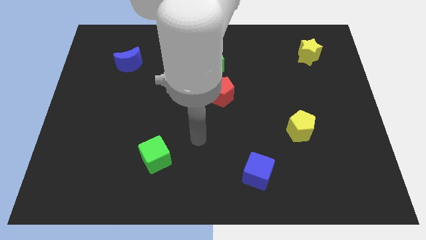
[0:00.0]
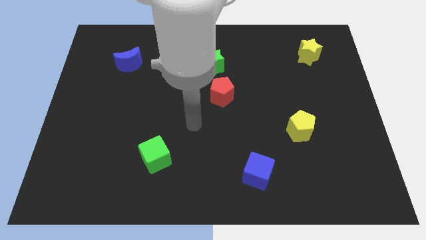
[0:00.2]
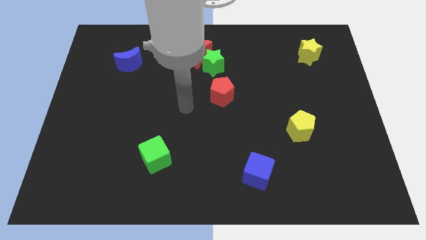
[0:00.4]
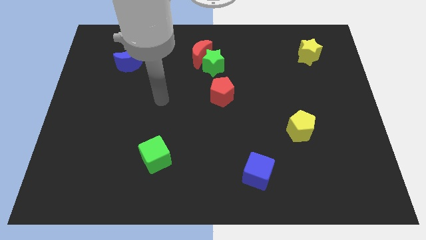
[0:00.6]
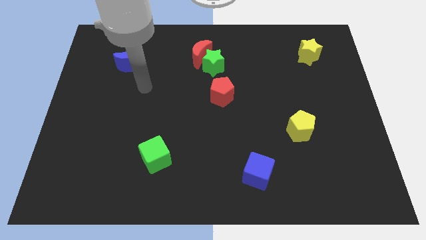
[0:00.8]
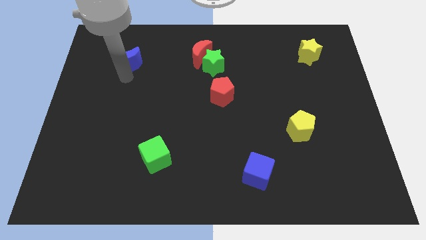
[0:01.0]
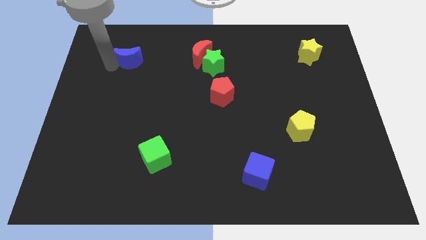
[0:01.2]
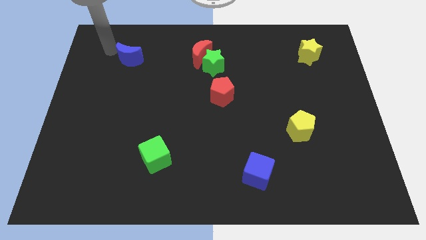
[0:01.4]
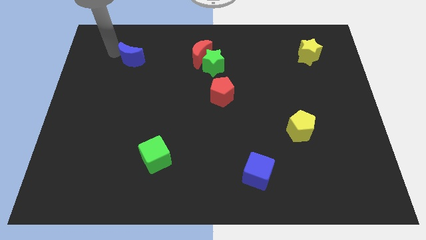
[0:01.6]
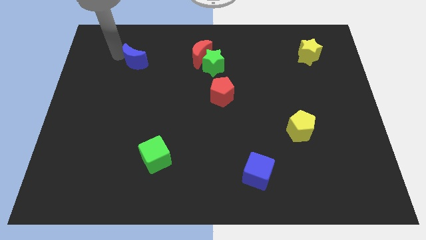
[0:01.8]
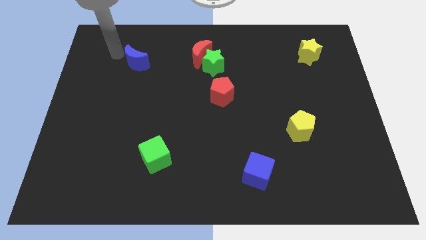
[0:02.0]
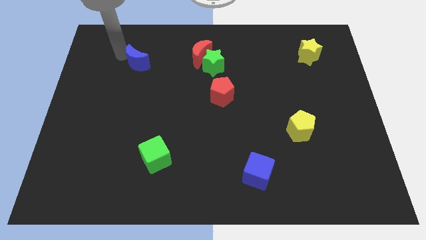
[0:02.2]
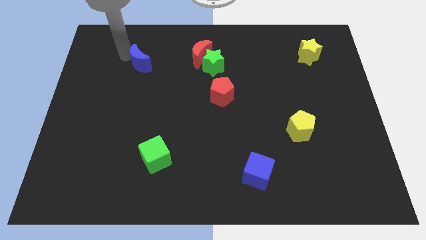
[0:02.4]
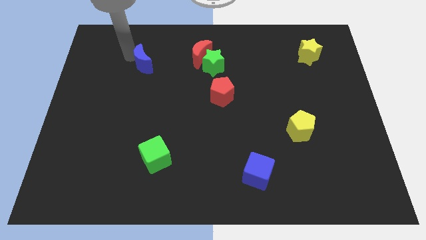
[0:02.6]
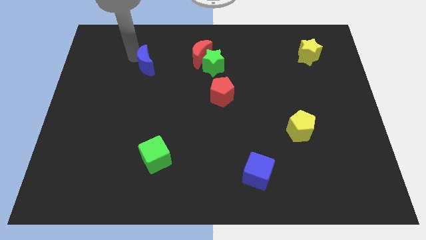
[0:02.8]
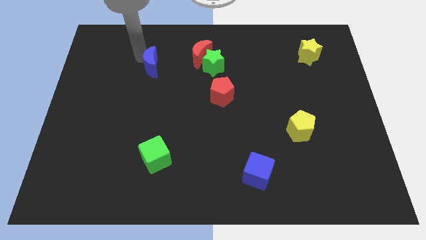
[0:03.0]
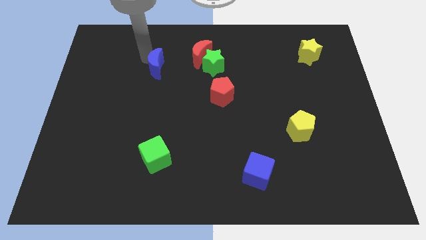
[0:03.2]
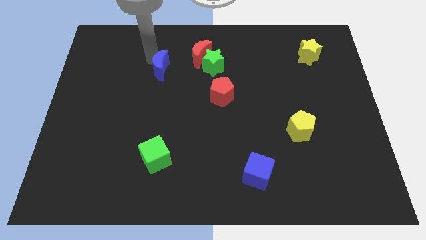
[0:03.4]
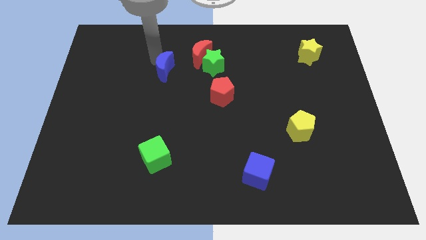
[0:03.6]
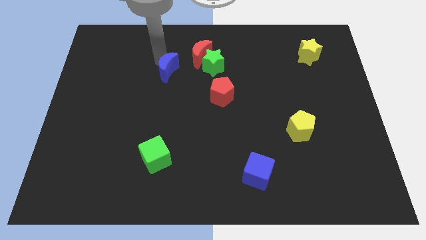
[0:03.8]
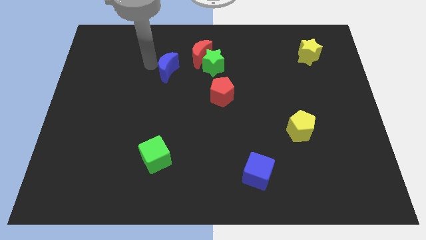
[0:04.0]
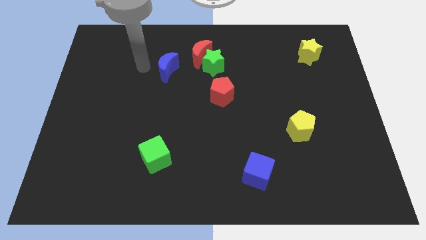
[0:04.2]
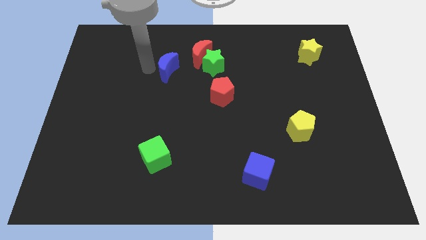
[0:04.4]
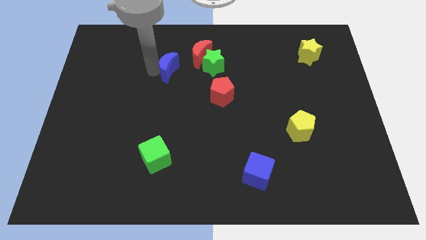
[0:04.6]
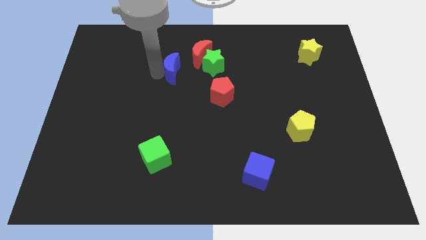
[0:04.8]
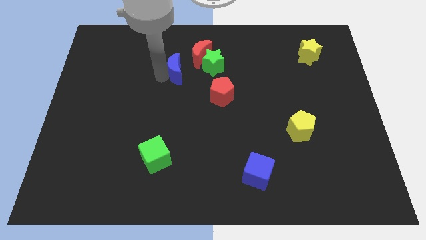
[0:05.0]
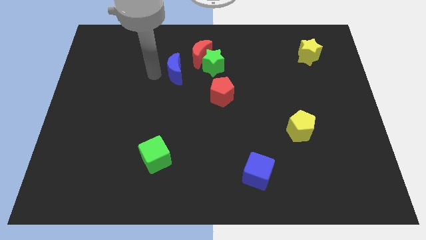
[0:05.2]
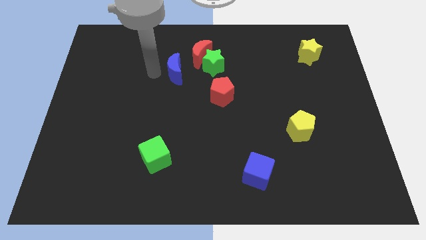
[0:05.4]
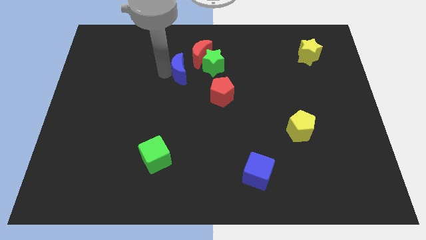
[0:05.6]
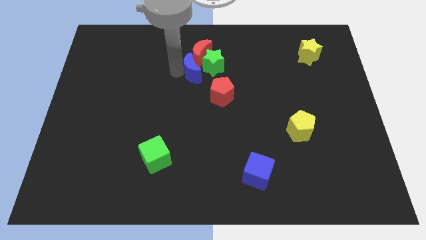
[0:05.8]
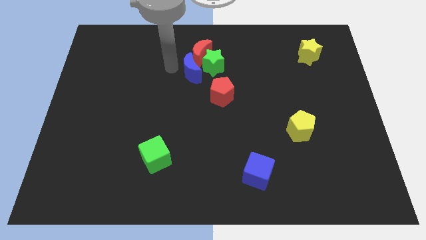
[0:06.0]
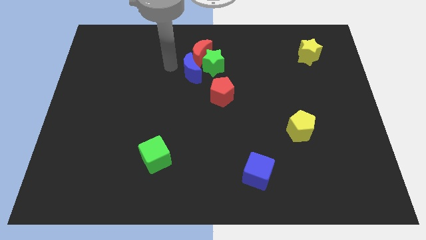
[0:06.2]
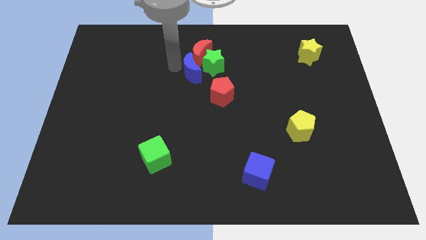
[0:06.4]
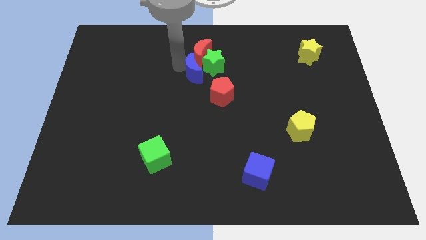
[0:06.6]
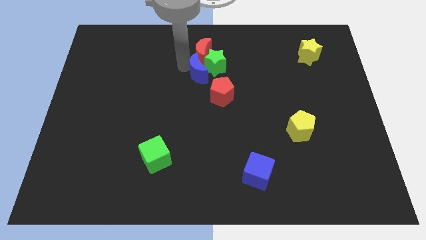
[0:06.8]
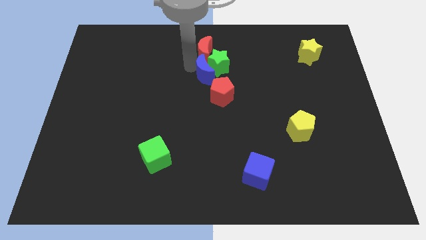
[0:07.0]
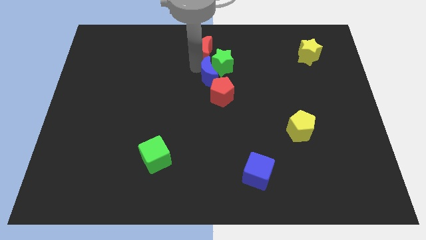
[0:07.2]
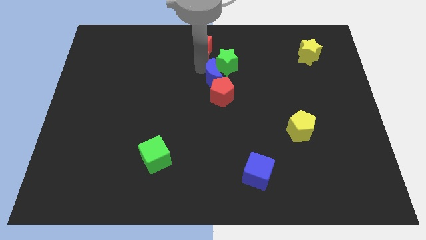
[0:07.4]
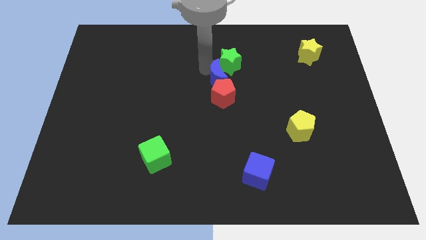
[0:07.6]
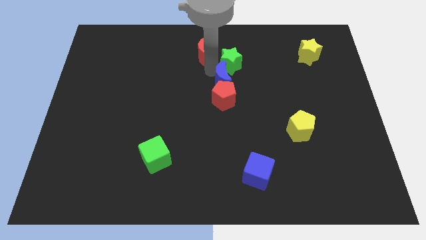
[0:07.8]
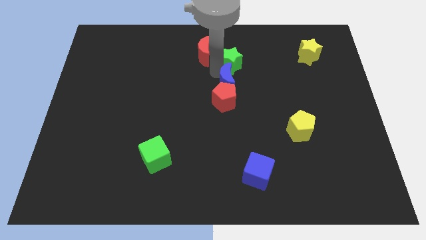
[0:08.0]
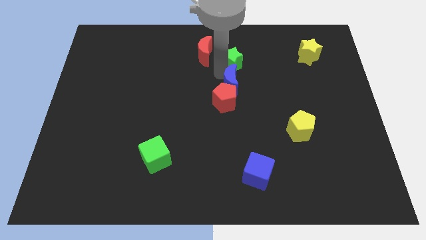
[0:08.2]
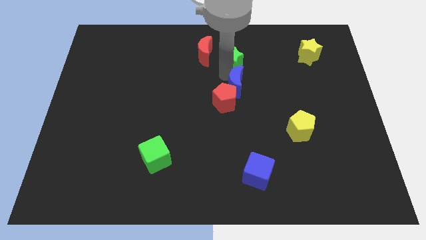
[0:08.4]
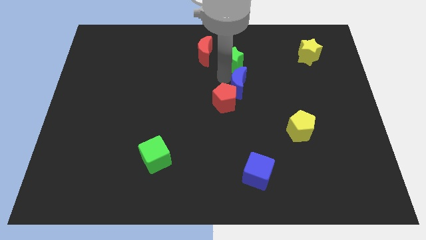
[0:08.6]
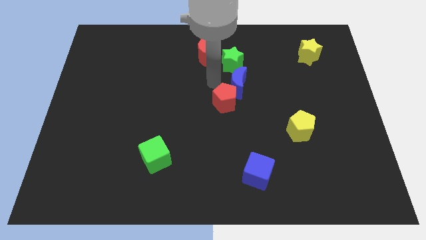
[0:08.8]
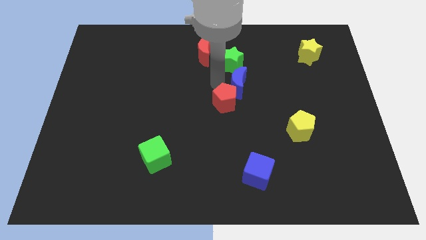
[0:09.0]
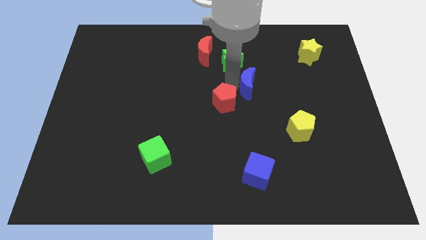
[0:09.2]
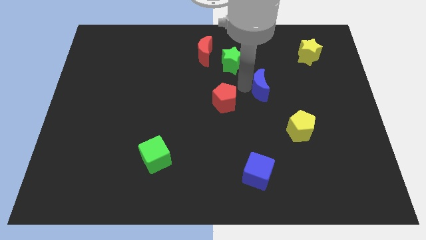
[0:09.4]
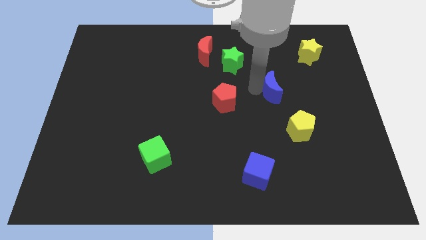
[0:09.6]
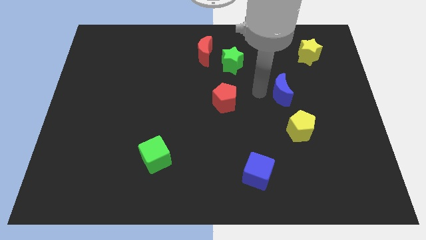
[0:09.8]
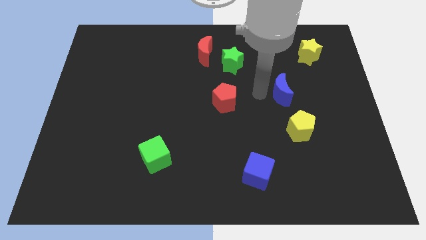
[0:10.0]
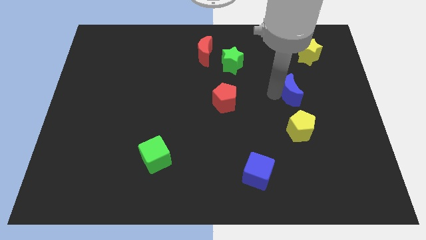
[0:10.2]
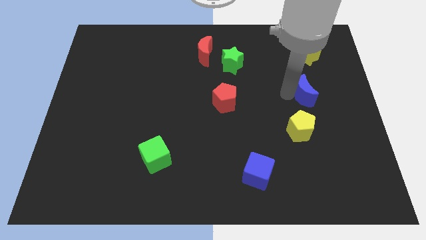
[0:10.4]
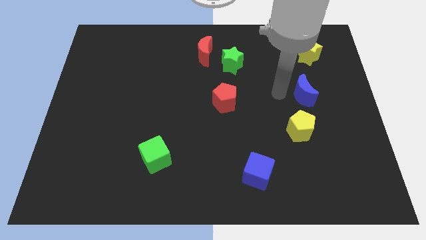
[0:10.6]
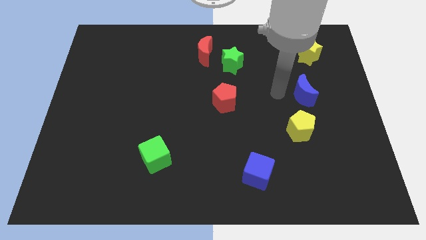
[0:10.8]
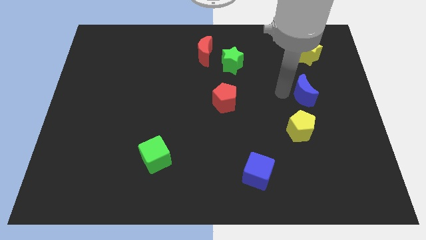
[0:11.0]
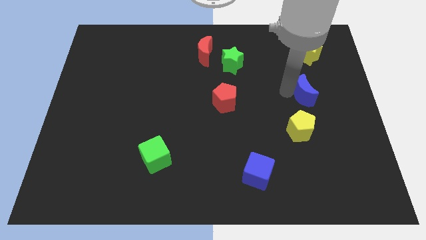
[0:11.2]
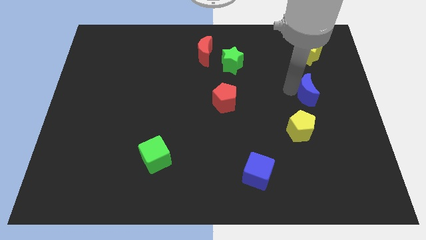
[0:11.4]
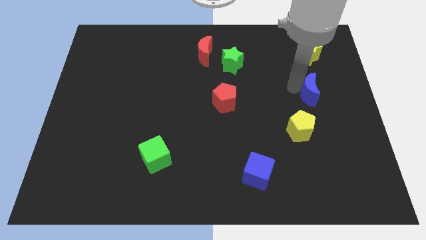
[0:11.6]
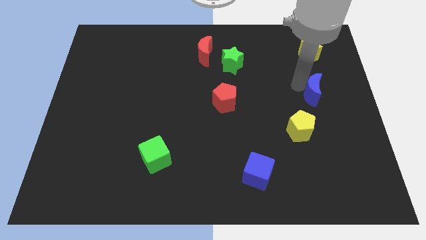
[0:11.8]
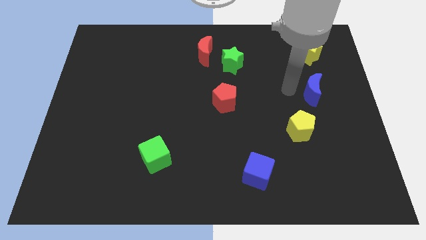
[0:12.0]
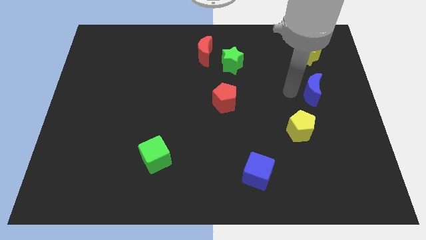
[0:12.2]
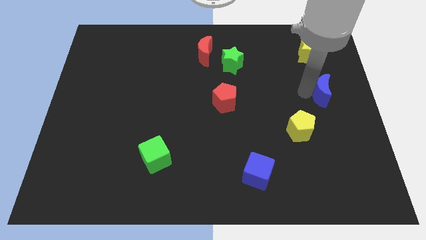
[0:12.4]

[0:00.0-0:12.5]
slide the blue moon to the right side
